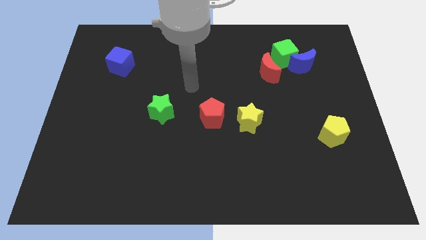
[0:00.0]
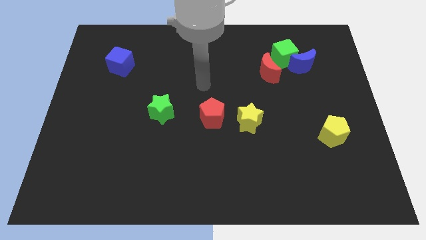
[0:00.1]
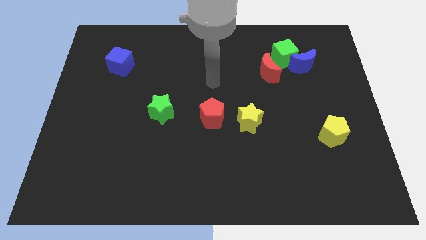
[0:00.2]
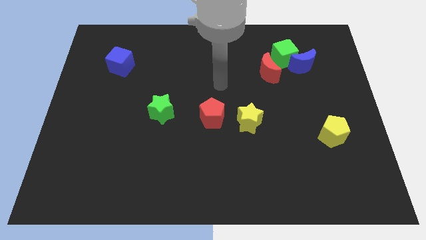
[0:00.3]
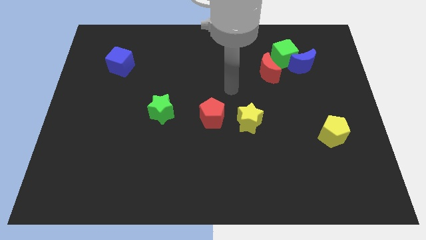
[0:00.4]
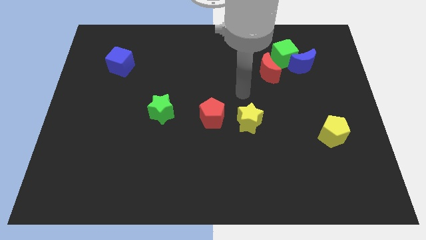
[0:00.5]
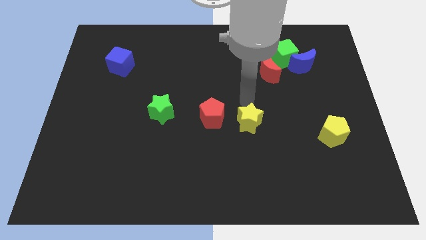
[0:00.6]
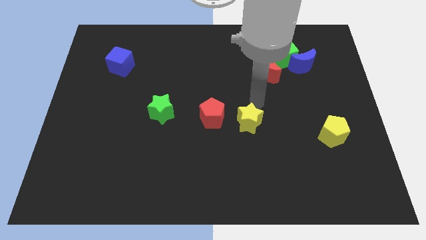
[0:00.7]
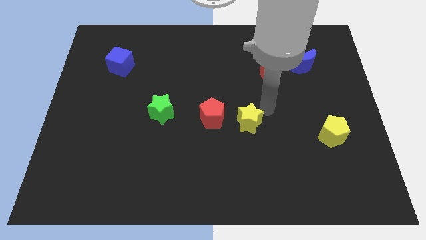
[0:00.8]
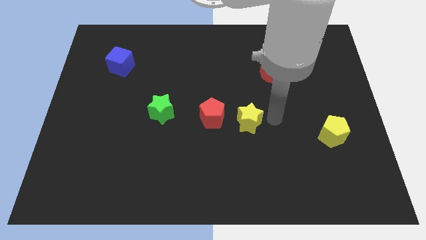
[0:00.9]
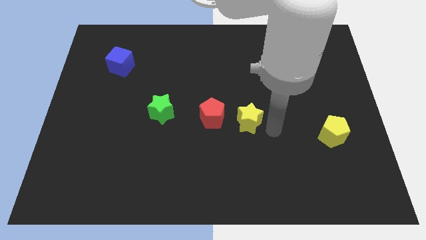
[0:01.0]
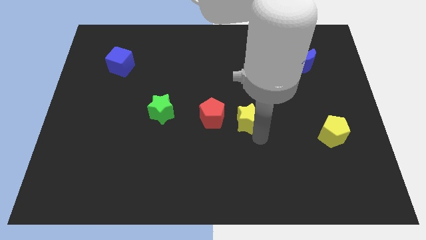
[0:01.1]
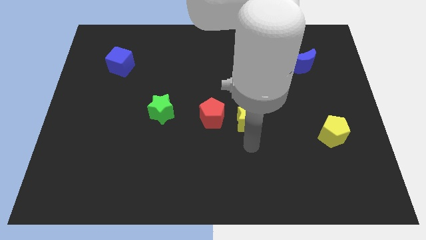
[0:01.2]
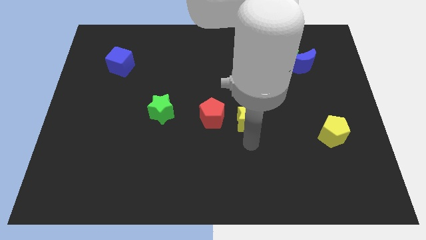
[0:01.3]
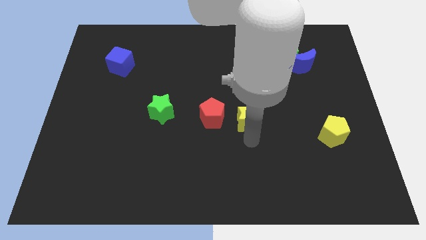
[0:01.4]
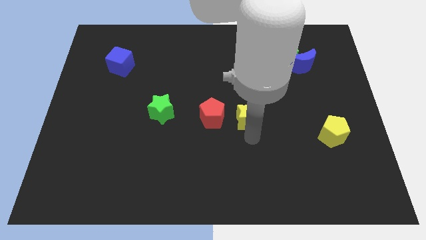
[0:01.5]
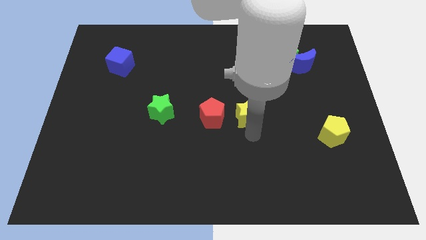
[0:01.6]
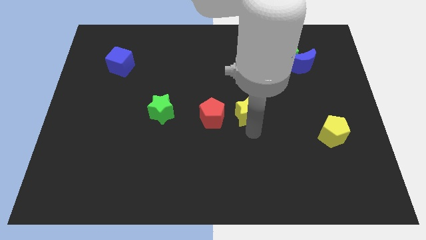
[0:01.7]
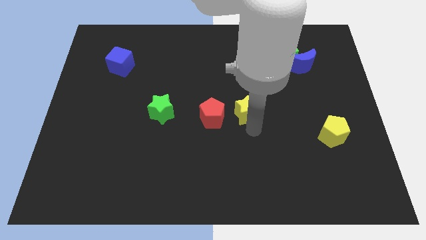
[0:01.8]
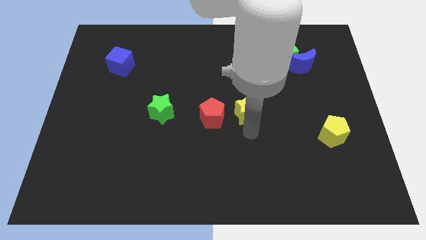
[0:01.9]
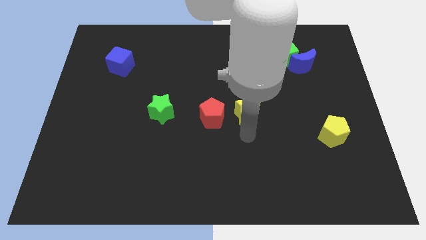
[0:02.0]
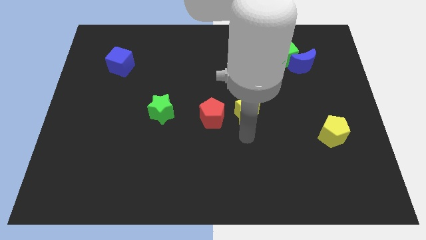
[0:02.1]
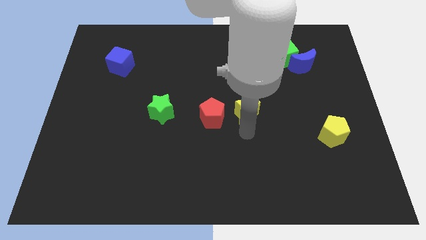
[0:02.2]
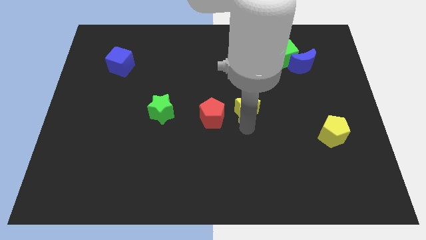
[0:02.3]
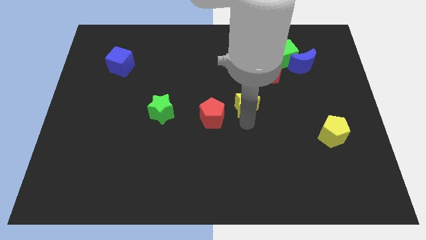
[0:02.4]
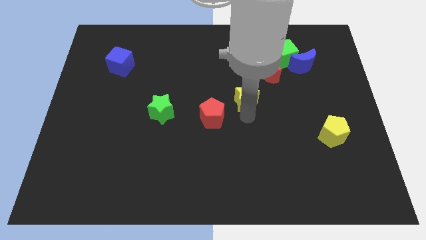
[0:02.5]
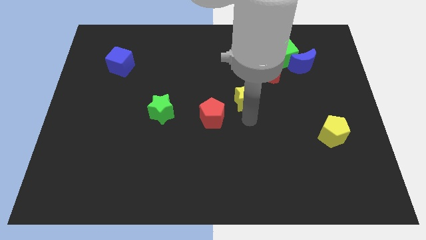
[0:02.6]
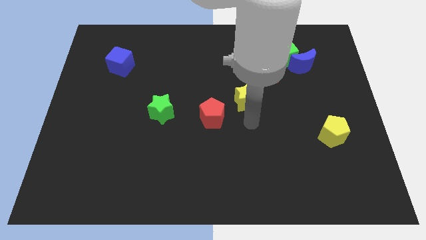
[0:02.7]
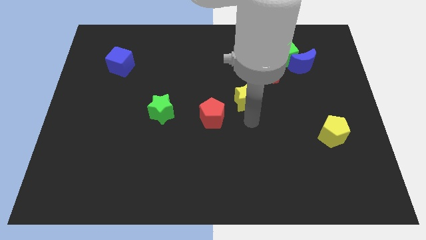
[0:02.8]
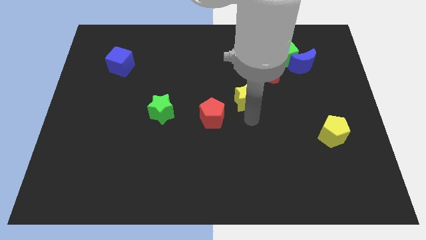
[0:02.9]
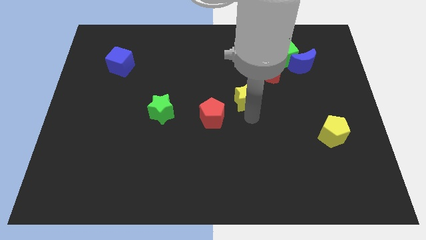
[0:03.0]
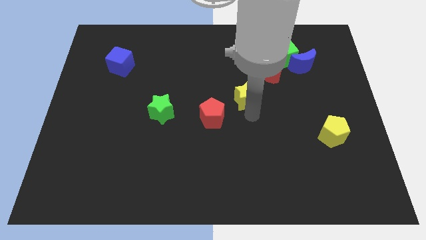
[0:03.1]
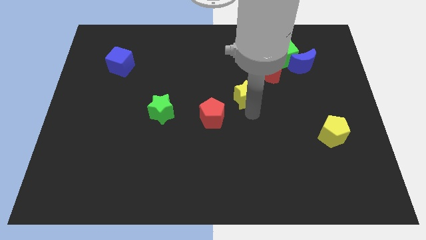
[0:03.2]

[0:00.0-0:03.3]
slide the yellow star a bit upwards

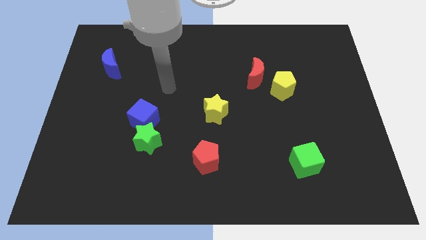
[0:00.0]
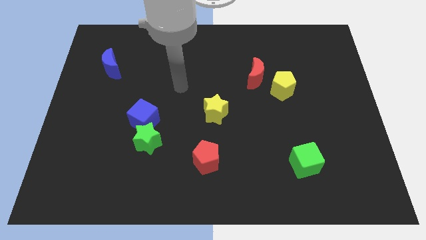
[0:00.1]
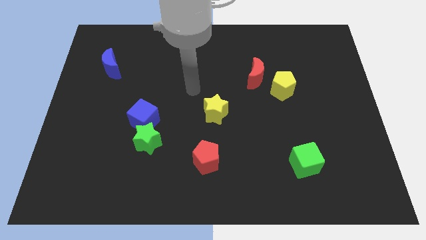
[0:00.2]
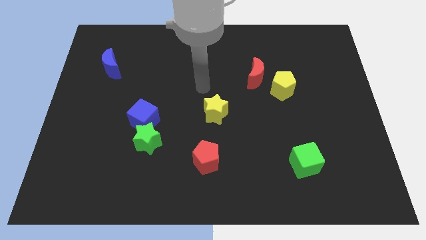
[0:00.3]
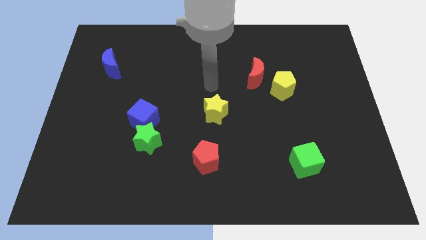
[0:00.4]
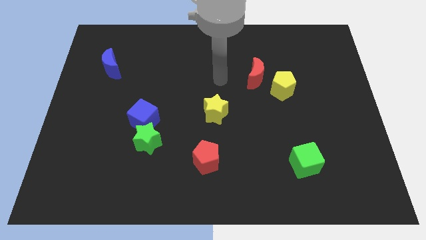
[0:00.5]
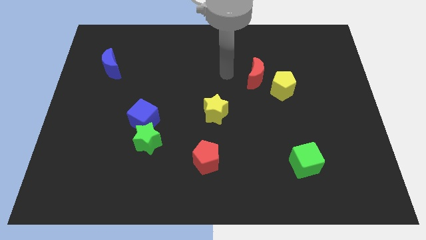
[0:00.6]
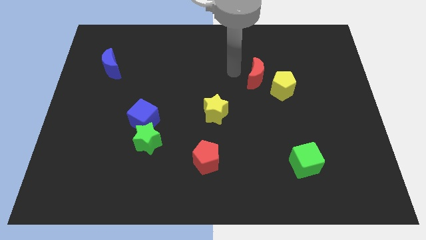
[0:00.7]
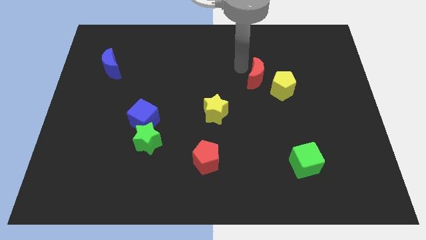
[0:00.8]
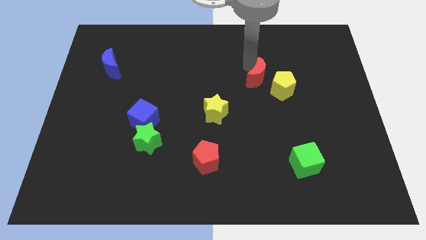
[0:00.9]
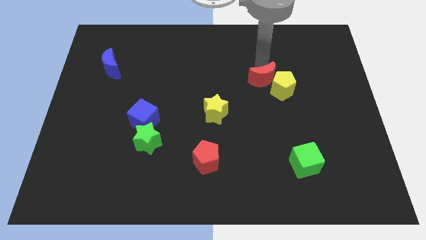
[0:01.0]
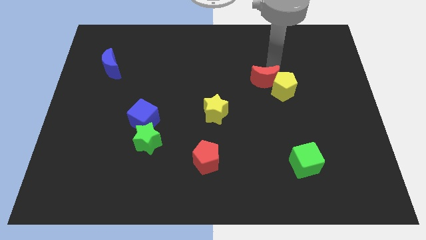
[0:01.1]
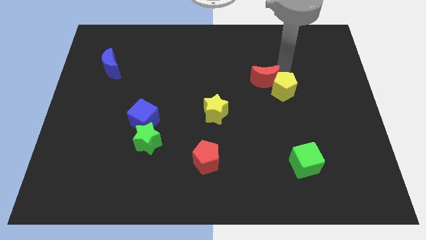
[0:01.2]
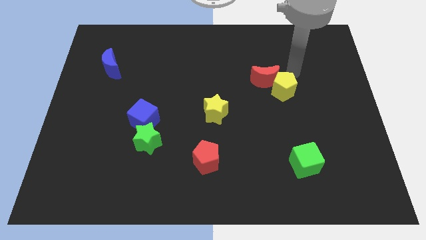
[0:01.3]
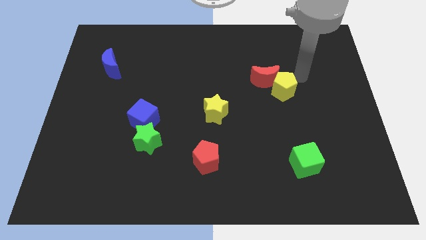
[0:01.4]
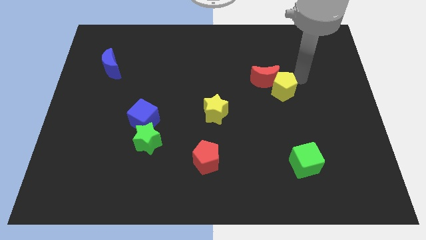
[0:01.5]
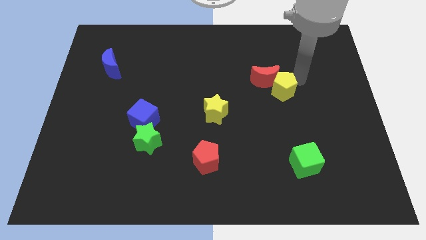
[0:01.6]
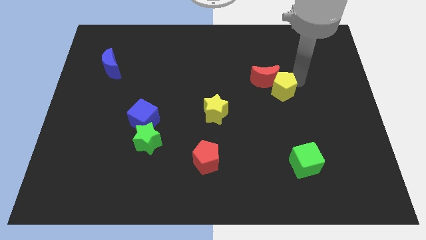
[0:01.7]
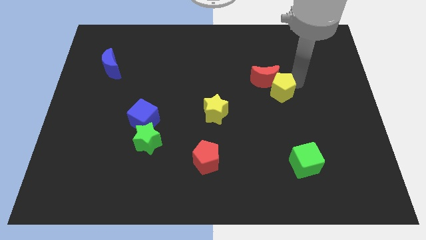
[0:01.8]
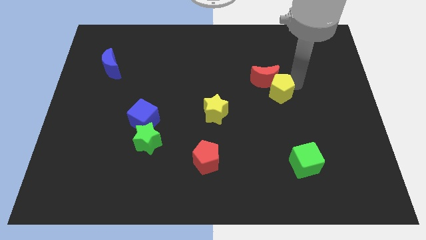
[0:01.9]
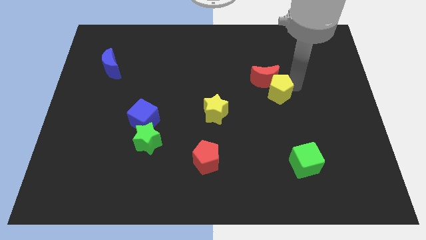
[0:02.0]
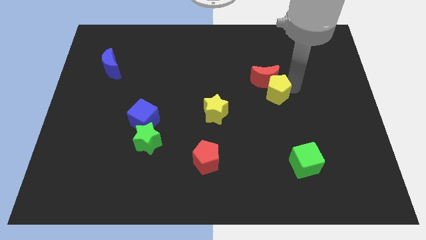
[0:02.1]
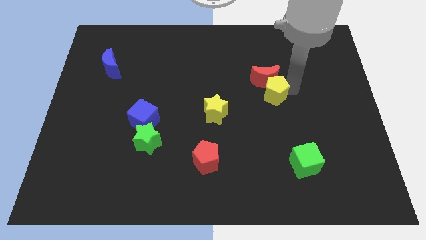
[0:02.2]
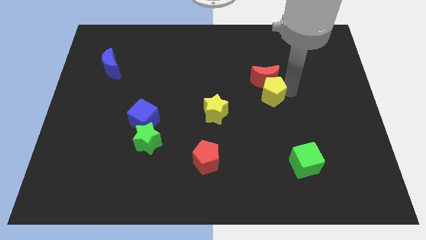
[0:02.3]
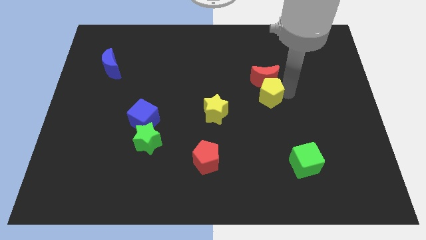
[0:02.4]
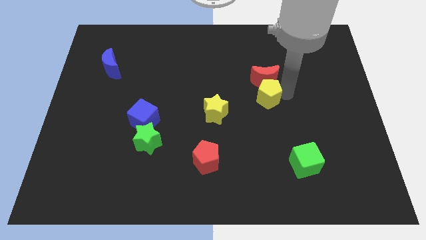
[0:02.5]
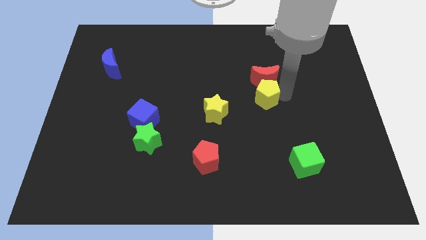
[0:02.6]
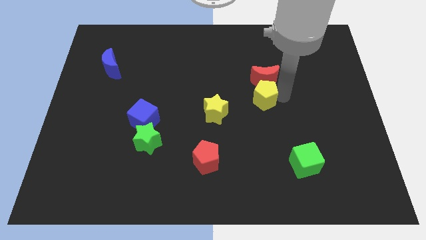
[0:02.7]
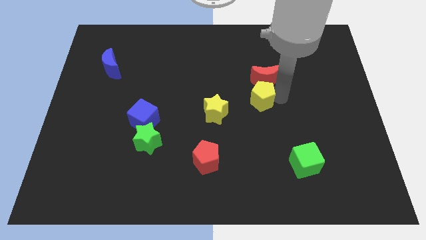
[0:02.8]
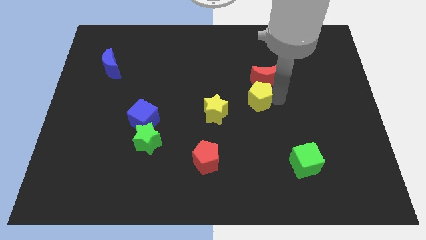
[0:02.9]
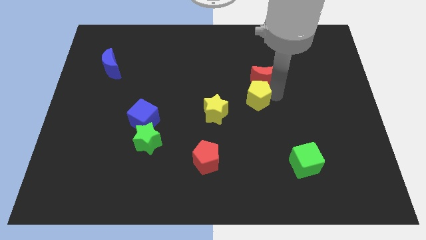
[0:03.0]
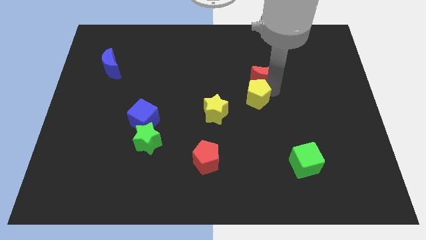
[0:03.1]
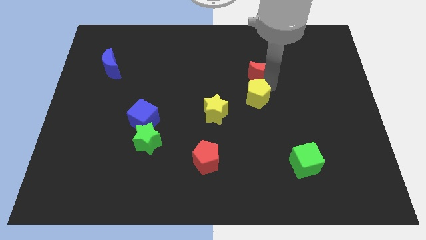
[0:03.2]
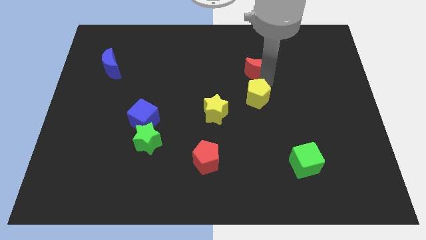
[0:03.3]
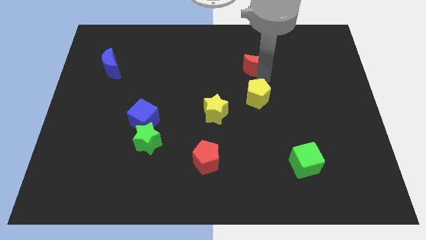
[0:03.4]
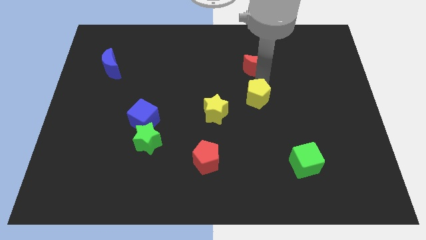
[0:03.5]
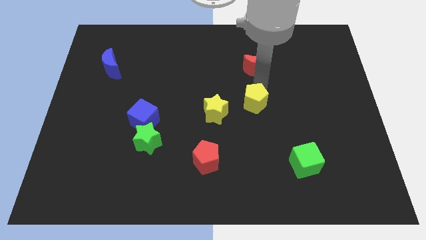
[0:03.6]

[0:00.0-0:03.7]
move the yellow pentagon a little bit down and to the left

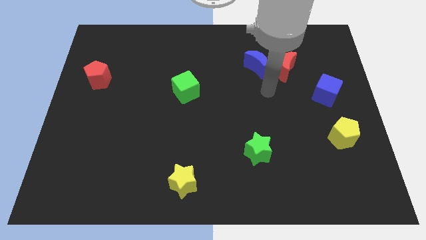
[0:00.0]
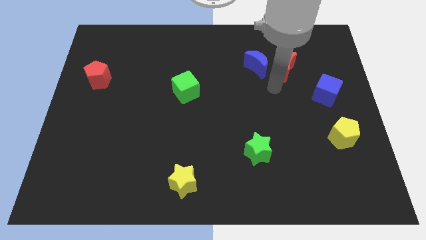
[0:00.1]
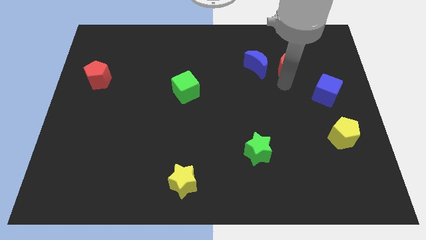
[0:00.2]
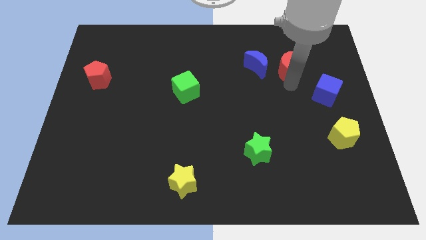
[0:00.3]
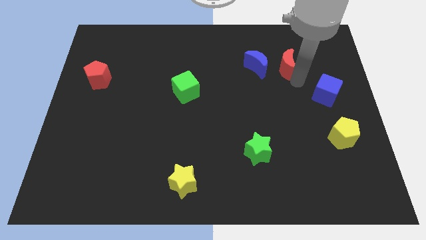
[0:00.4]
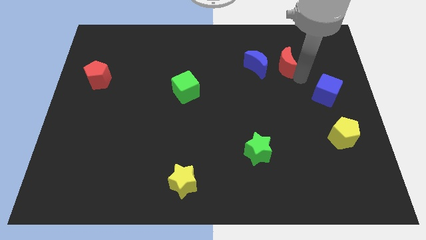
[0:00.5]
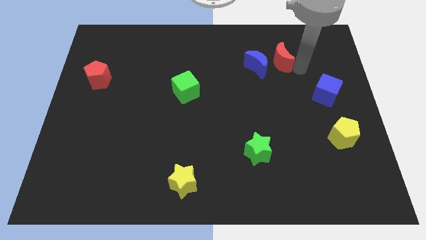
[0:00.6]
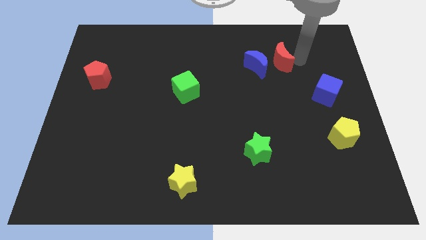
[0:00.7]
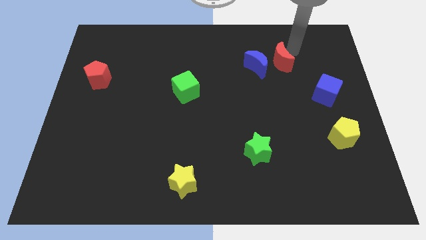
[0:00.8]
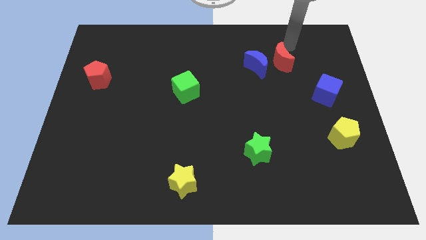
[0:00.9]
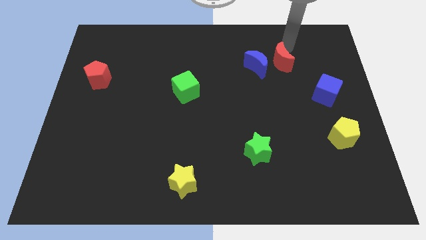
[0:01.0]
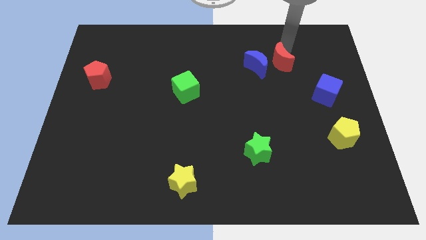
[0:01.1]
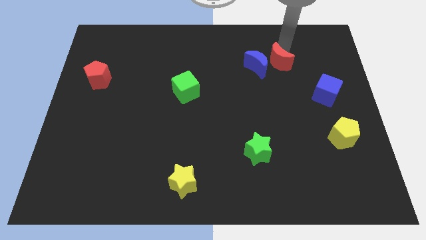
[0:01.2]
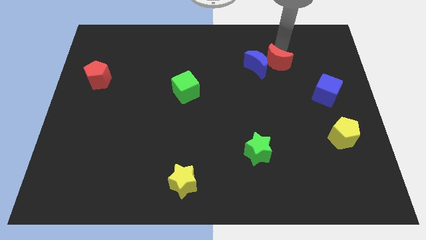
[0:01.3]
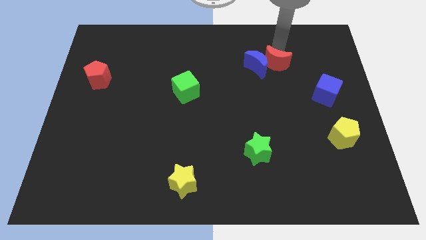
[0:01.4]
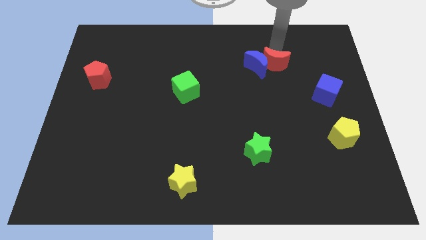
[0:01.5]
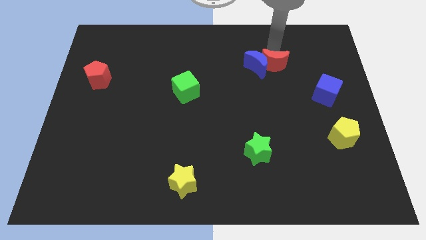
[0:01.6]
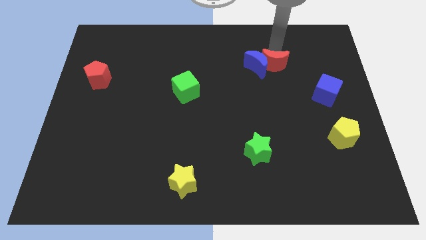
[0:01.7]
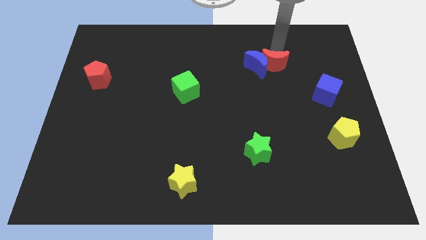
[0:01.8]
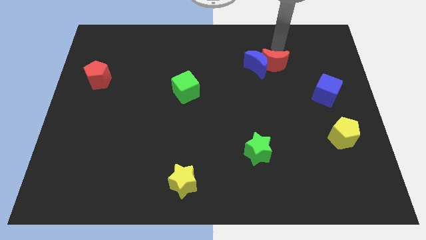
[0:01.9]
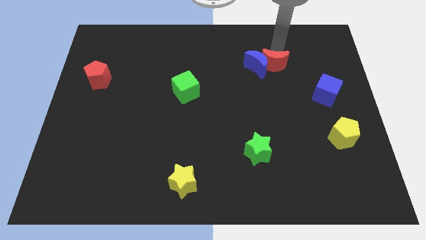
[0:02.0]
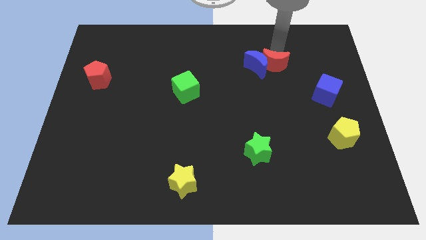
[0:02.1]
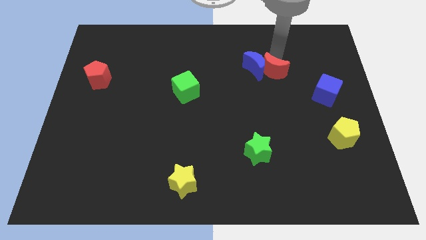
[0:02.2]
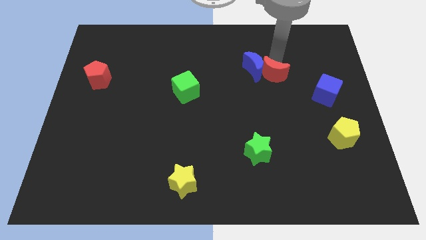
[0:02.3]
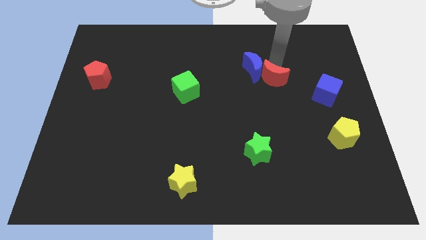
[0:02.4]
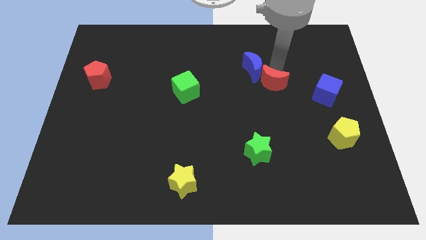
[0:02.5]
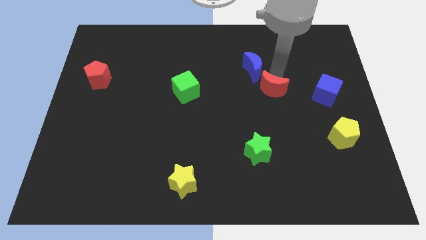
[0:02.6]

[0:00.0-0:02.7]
move the red moon a little downwards and left diagonally
